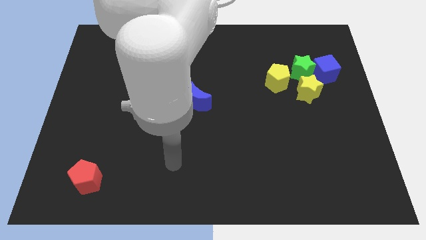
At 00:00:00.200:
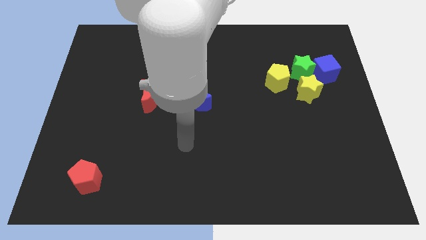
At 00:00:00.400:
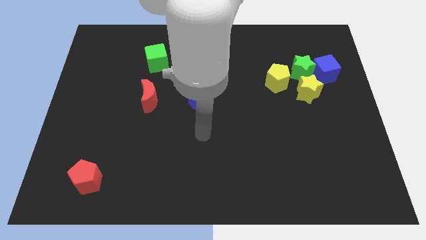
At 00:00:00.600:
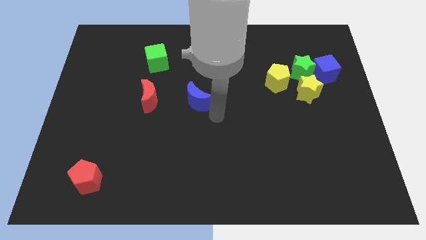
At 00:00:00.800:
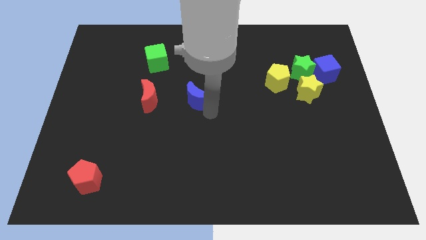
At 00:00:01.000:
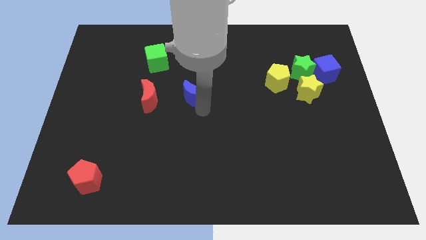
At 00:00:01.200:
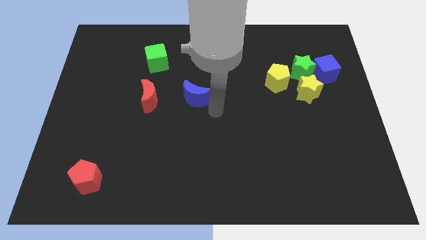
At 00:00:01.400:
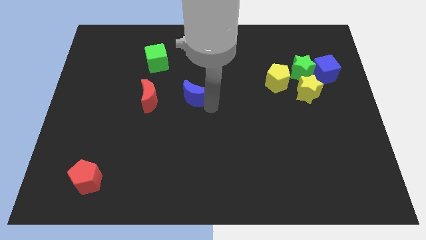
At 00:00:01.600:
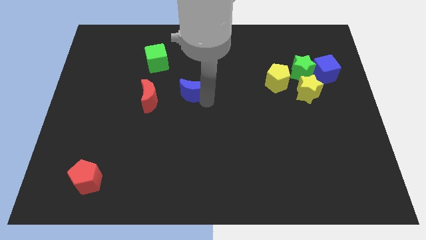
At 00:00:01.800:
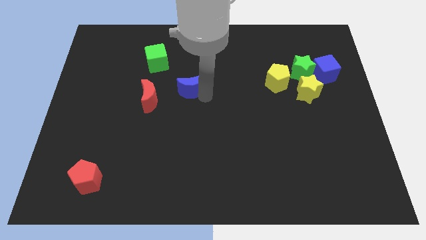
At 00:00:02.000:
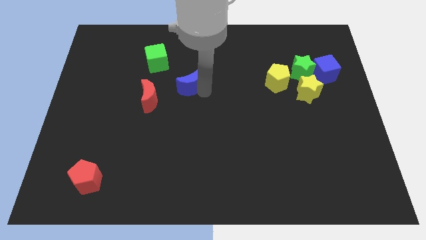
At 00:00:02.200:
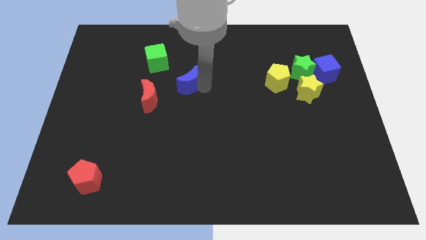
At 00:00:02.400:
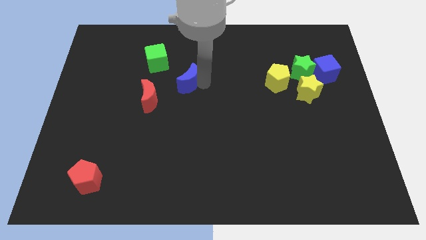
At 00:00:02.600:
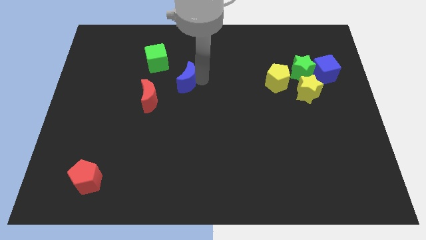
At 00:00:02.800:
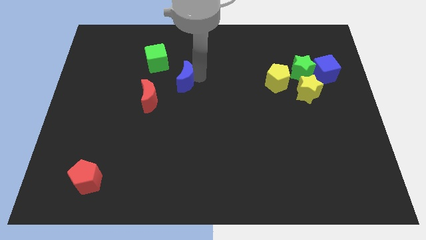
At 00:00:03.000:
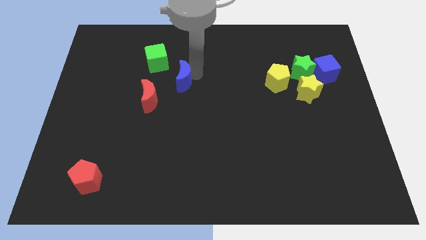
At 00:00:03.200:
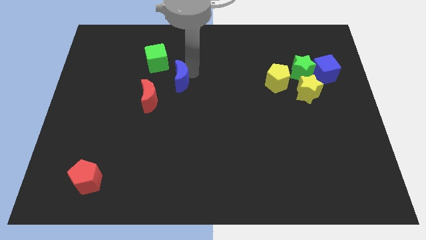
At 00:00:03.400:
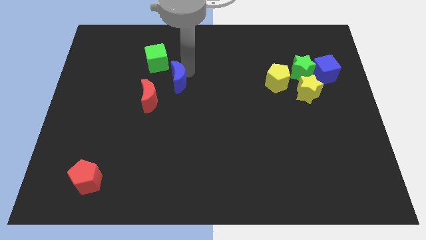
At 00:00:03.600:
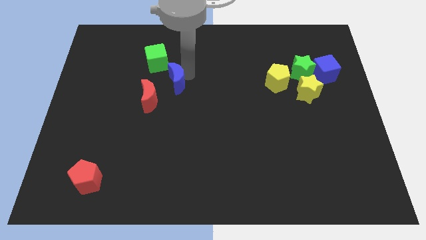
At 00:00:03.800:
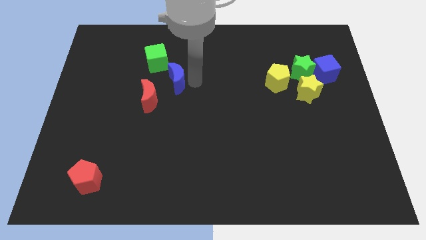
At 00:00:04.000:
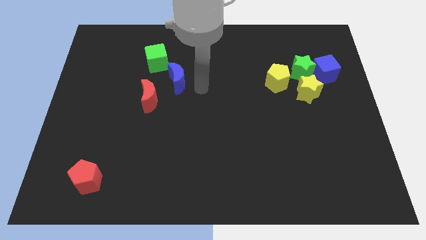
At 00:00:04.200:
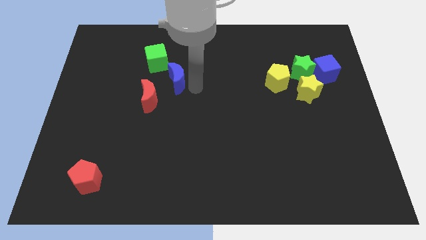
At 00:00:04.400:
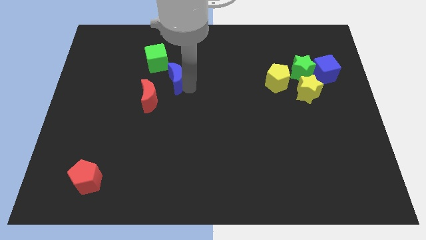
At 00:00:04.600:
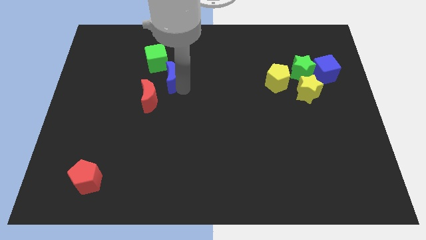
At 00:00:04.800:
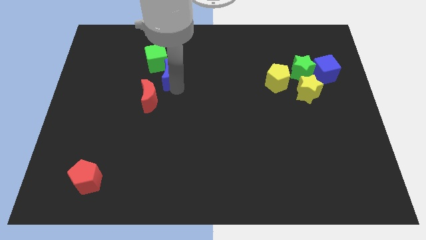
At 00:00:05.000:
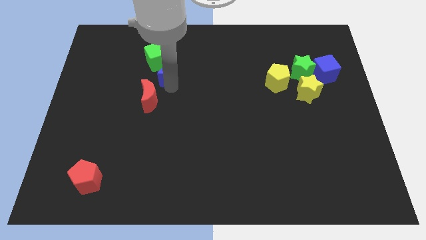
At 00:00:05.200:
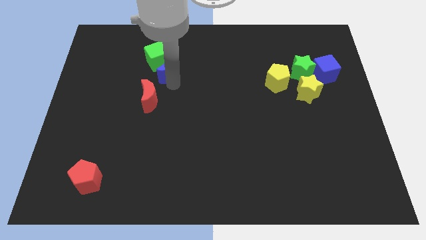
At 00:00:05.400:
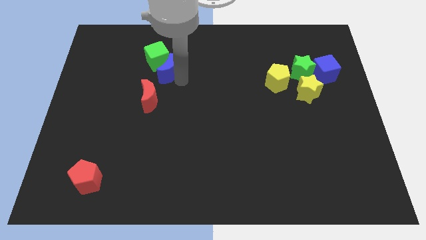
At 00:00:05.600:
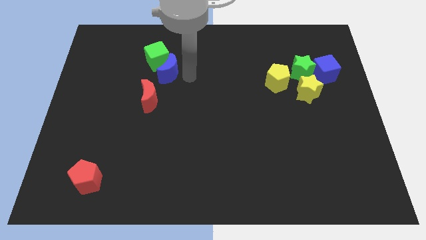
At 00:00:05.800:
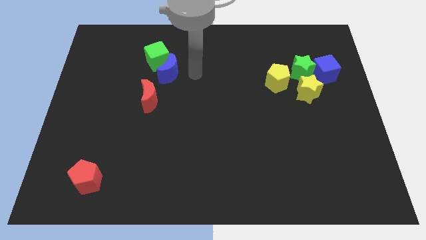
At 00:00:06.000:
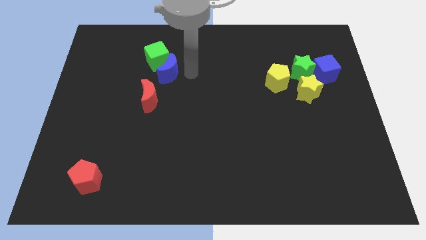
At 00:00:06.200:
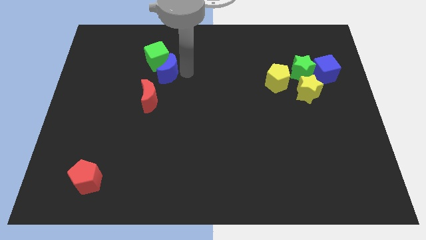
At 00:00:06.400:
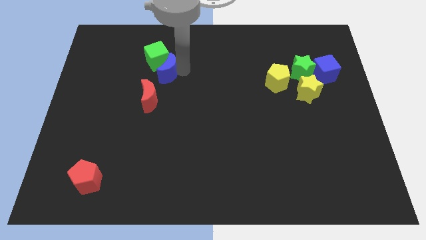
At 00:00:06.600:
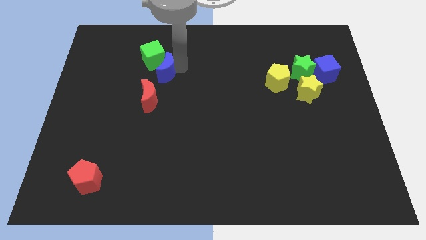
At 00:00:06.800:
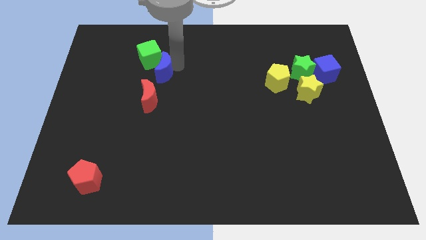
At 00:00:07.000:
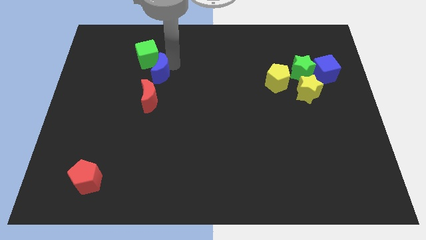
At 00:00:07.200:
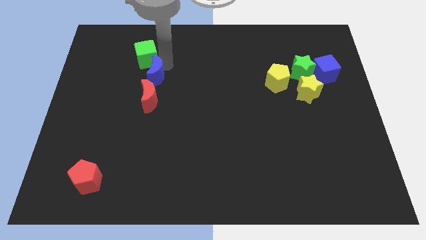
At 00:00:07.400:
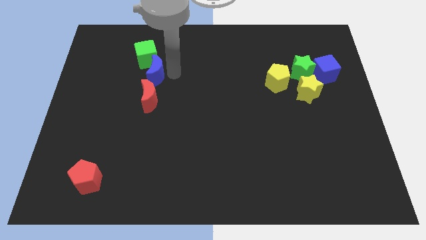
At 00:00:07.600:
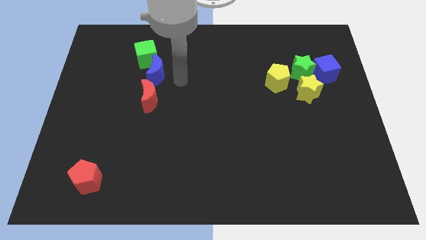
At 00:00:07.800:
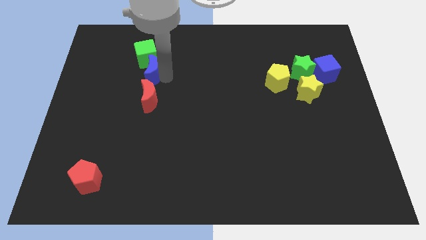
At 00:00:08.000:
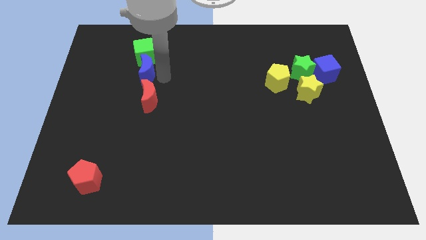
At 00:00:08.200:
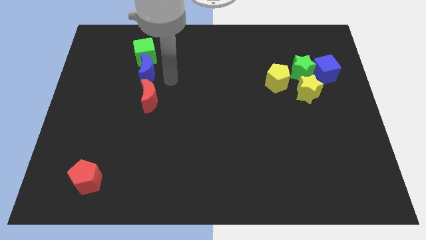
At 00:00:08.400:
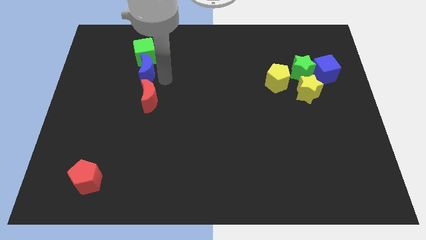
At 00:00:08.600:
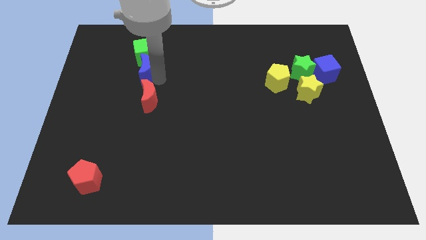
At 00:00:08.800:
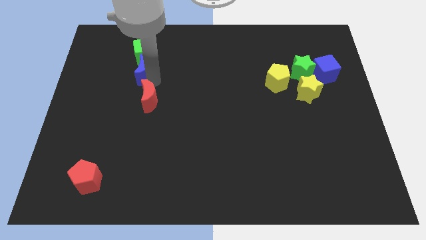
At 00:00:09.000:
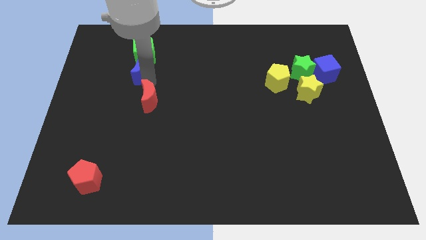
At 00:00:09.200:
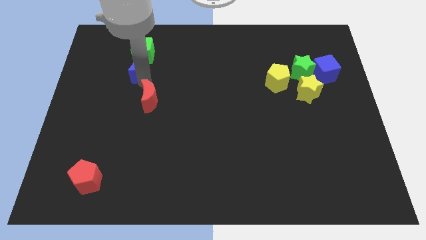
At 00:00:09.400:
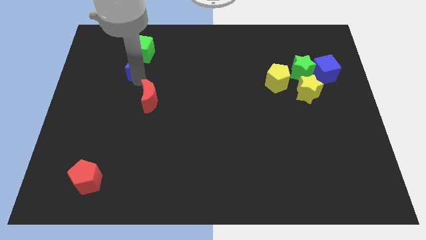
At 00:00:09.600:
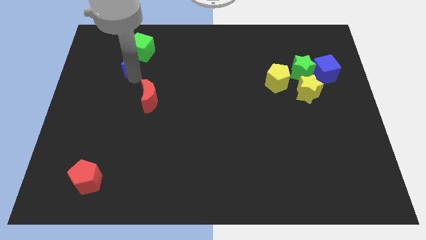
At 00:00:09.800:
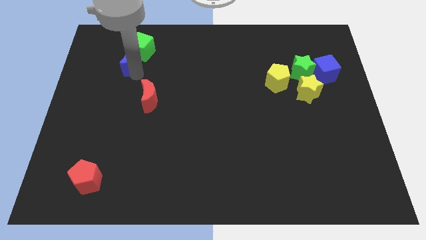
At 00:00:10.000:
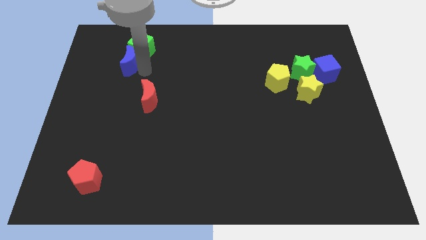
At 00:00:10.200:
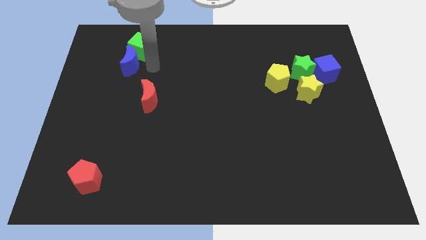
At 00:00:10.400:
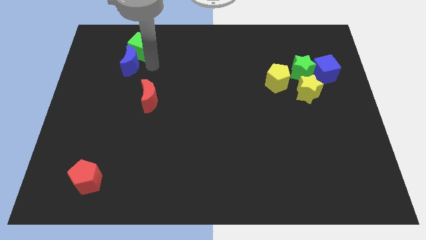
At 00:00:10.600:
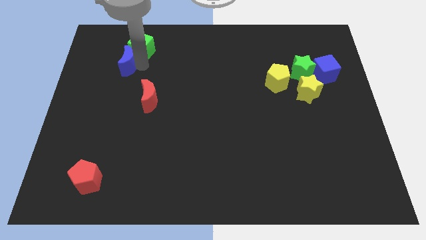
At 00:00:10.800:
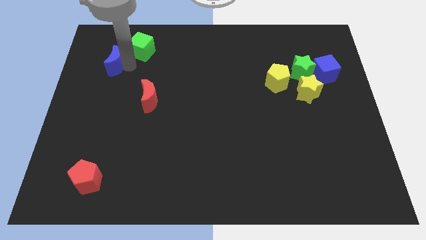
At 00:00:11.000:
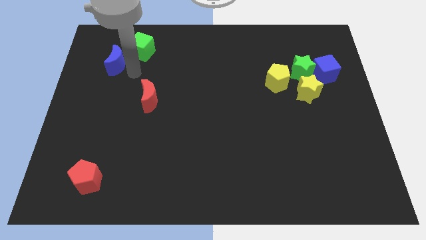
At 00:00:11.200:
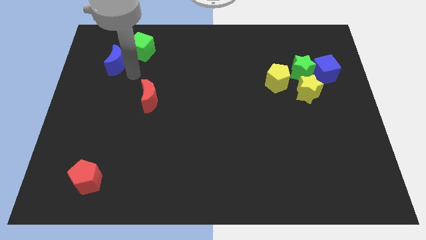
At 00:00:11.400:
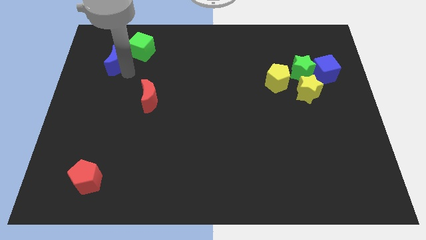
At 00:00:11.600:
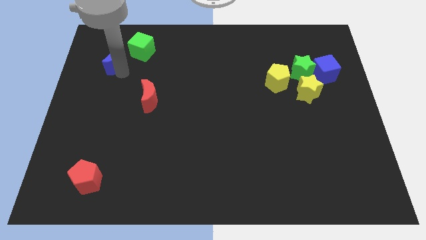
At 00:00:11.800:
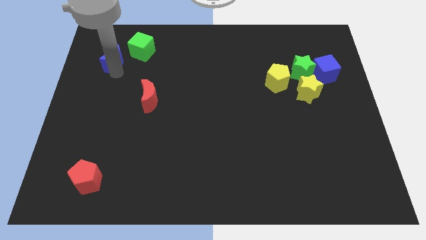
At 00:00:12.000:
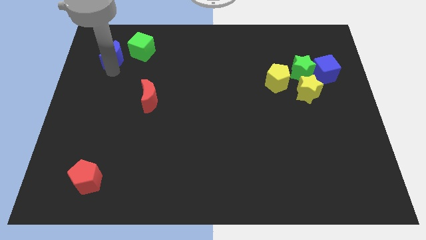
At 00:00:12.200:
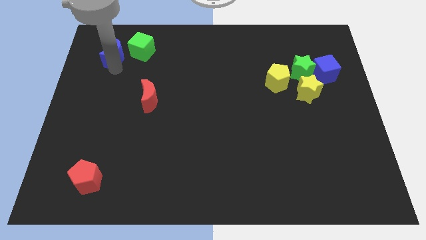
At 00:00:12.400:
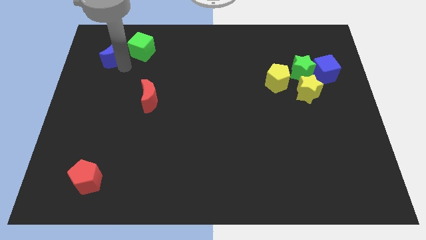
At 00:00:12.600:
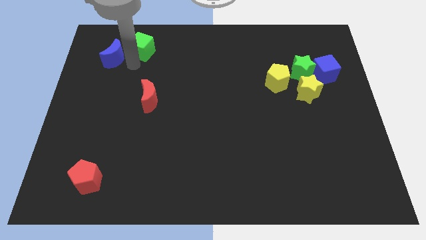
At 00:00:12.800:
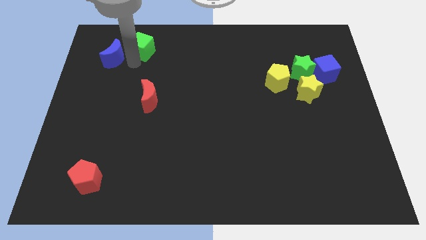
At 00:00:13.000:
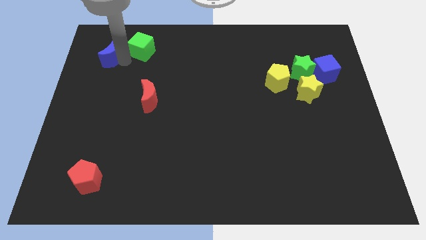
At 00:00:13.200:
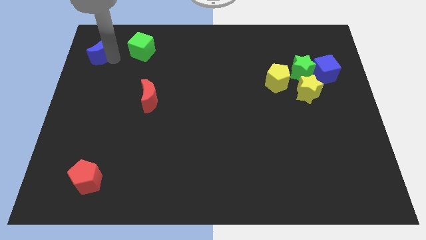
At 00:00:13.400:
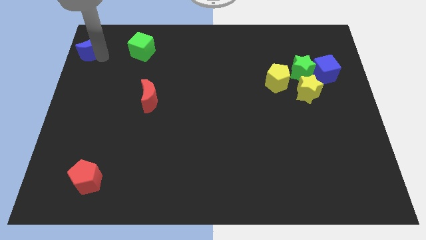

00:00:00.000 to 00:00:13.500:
move the blue moon to the upper left corner
